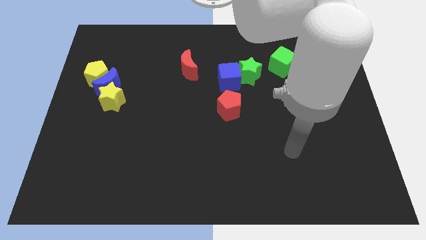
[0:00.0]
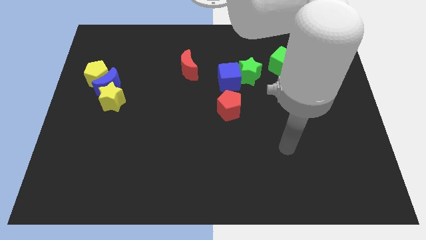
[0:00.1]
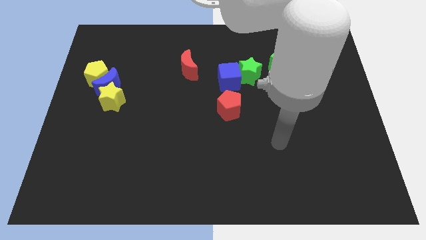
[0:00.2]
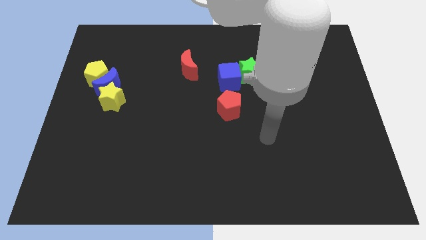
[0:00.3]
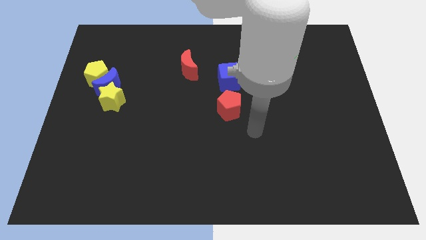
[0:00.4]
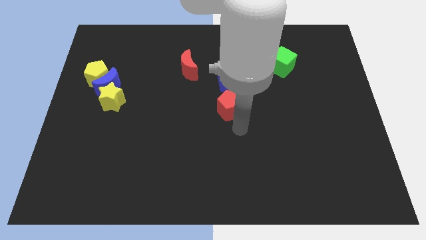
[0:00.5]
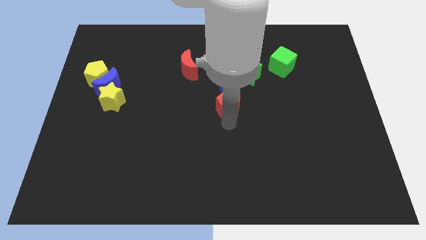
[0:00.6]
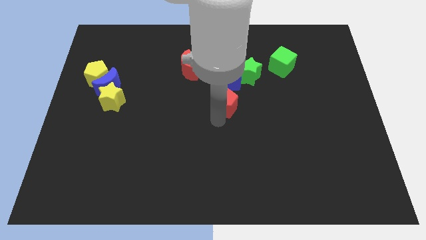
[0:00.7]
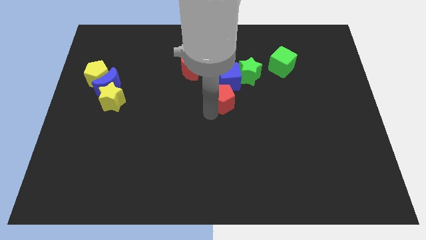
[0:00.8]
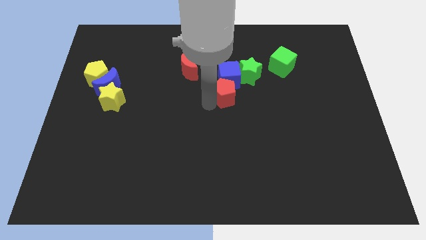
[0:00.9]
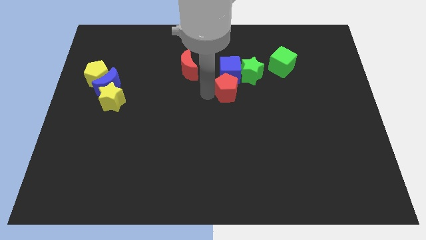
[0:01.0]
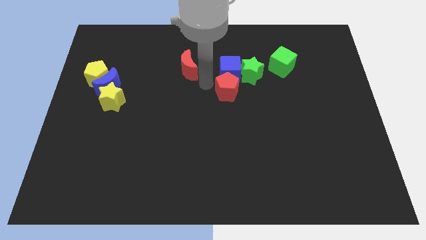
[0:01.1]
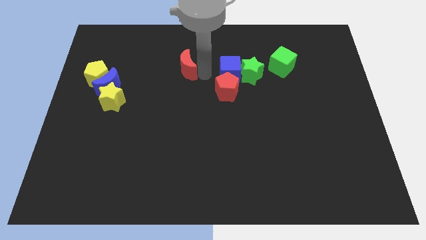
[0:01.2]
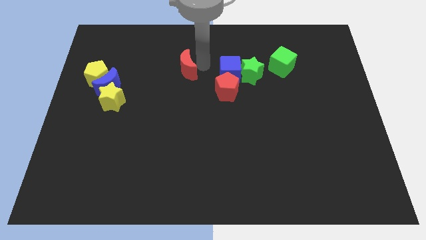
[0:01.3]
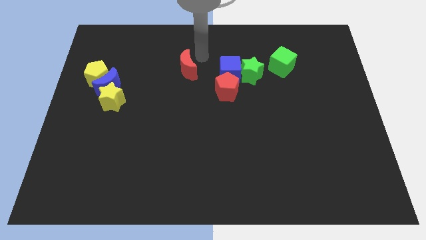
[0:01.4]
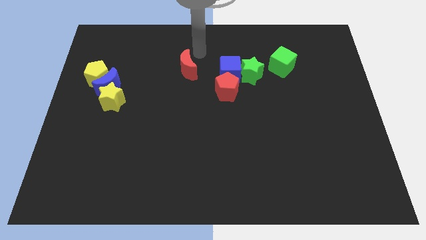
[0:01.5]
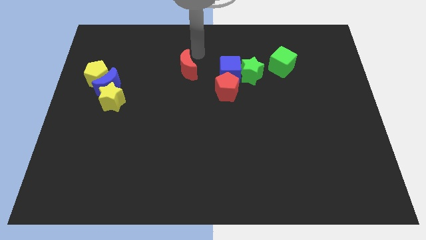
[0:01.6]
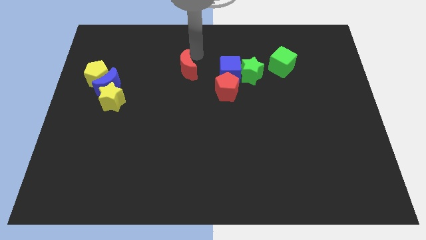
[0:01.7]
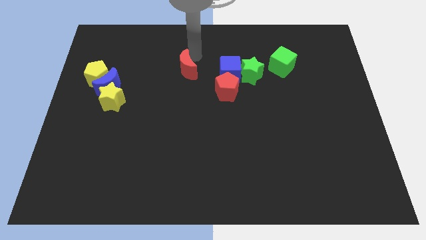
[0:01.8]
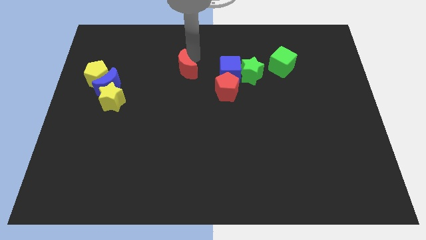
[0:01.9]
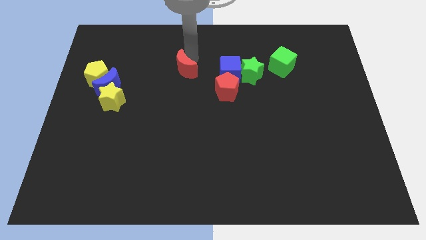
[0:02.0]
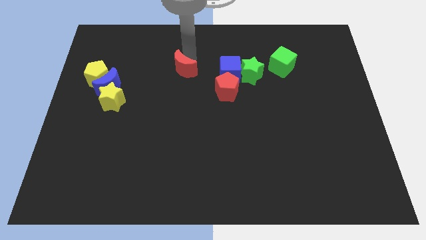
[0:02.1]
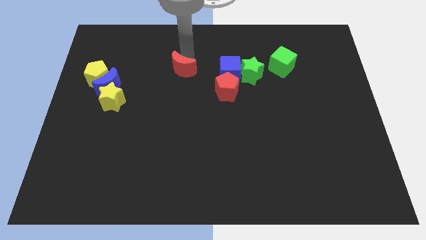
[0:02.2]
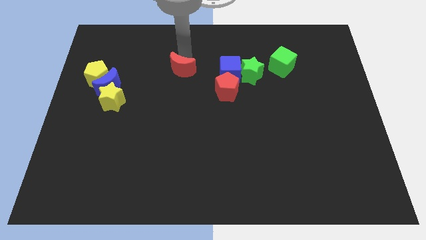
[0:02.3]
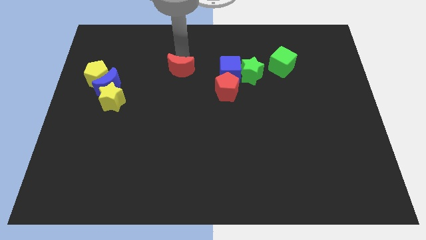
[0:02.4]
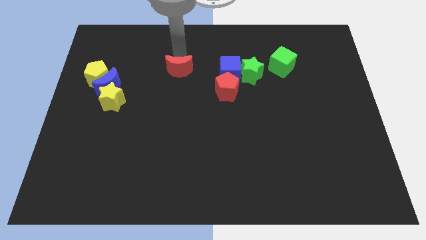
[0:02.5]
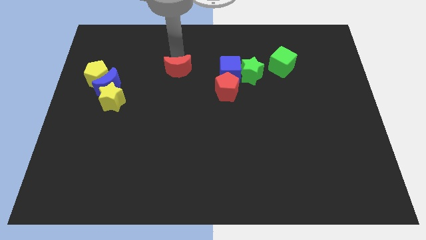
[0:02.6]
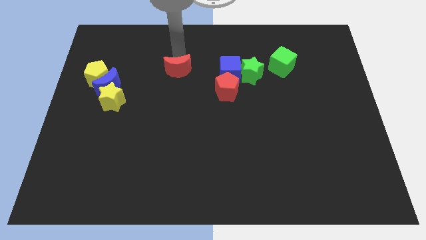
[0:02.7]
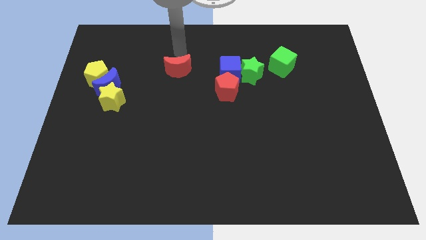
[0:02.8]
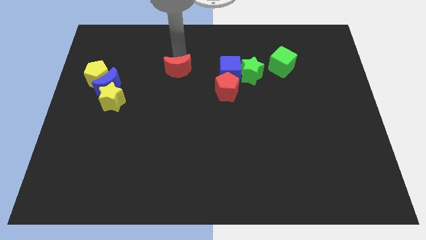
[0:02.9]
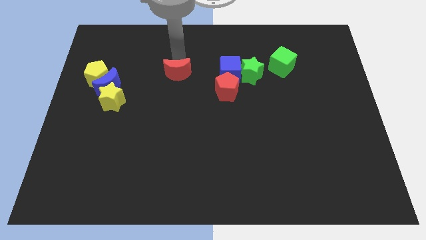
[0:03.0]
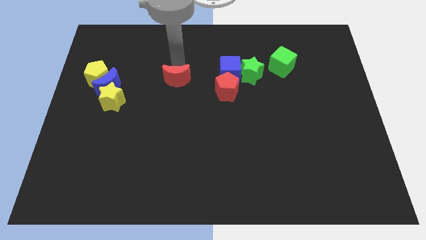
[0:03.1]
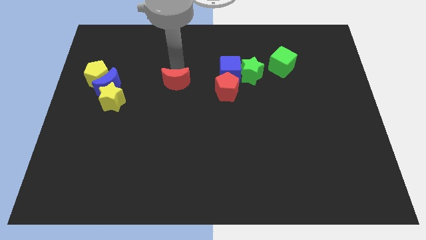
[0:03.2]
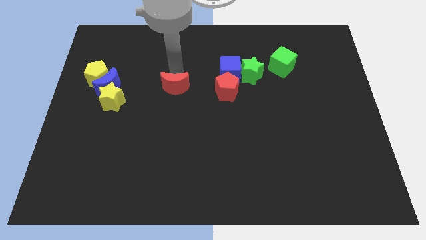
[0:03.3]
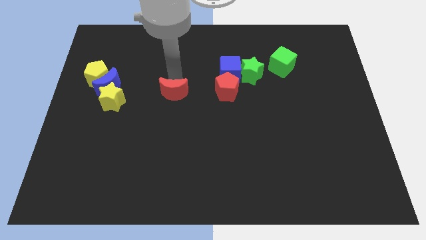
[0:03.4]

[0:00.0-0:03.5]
move the red moon downwards a little bit

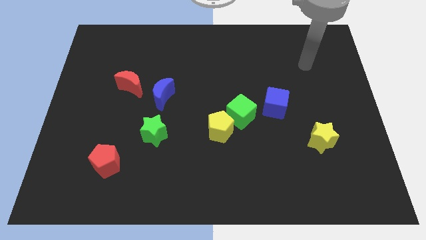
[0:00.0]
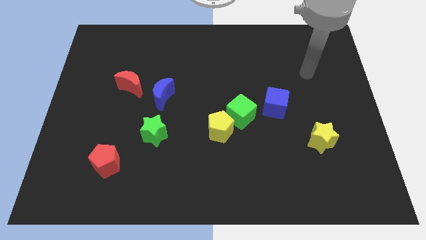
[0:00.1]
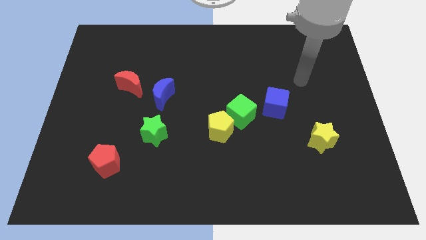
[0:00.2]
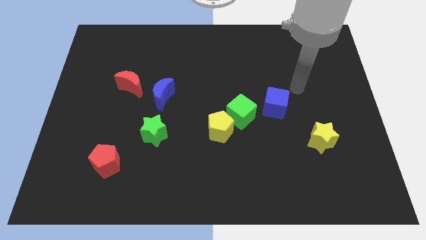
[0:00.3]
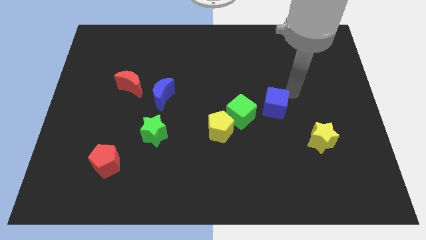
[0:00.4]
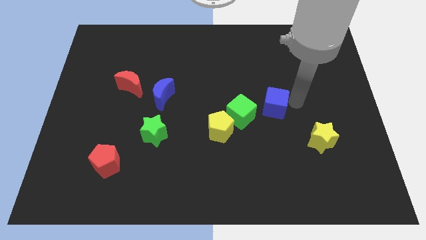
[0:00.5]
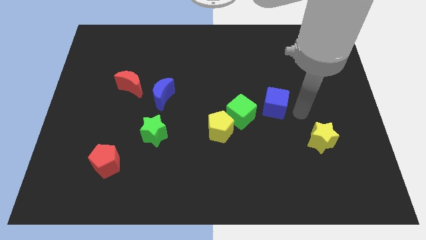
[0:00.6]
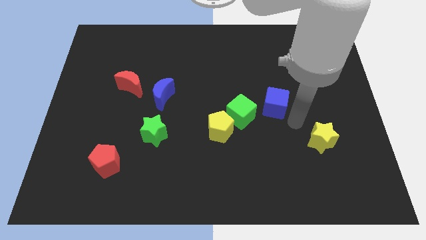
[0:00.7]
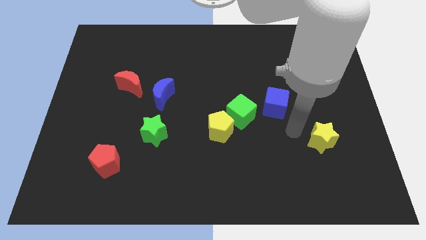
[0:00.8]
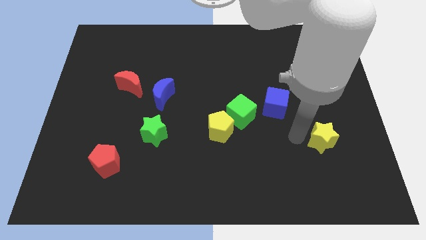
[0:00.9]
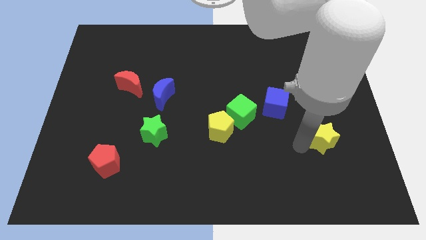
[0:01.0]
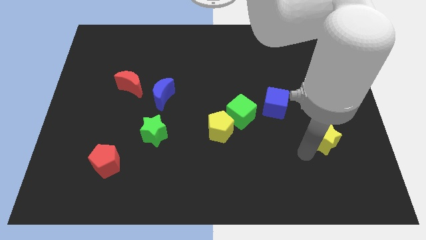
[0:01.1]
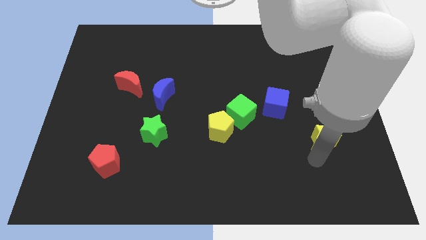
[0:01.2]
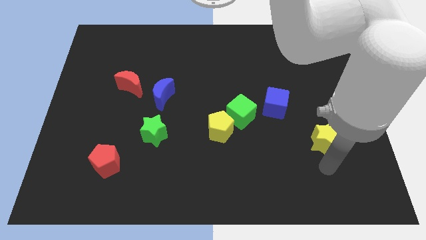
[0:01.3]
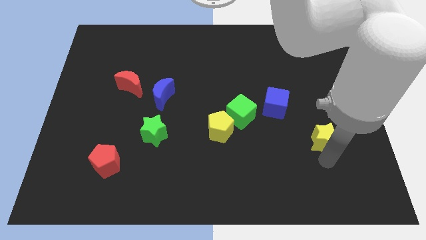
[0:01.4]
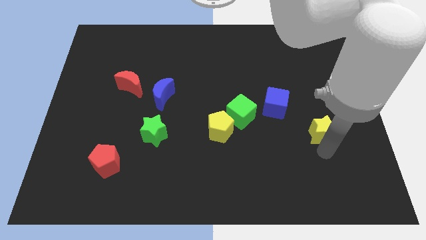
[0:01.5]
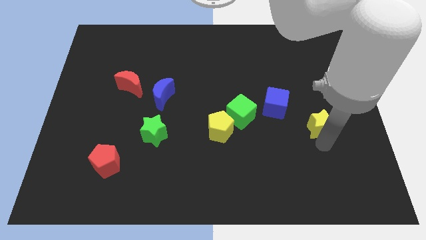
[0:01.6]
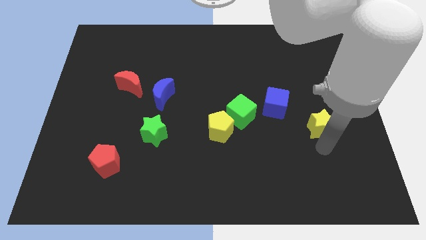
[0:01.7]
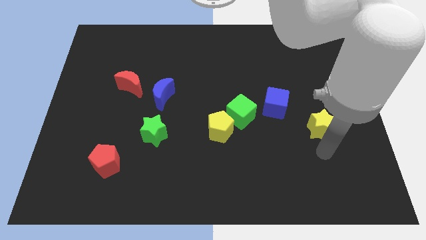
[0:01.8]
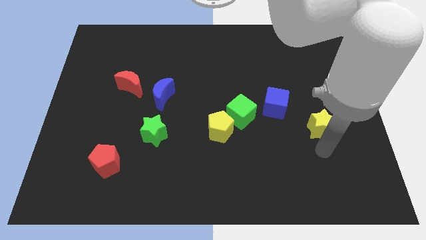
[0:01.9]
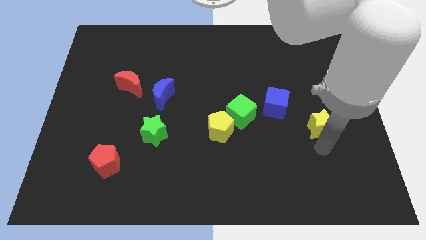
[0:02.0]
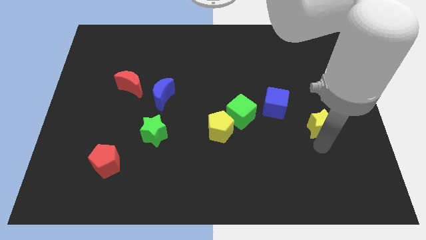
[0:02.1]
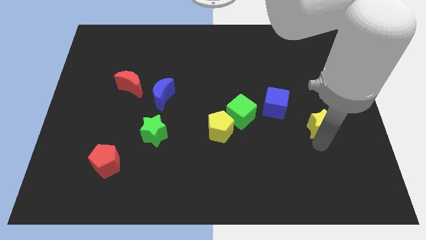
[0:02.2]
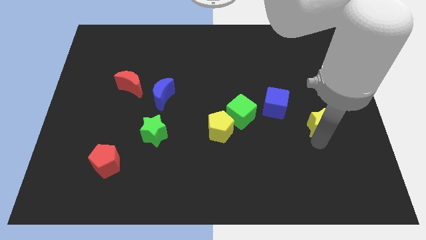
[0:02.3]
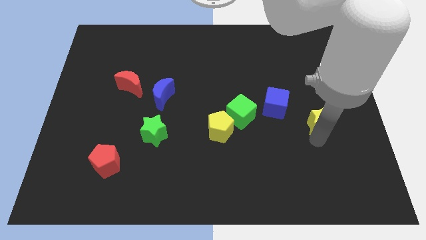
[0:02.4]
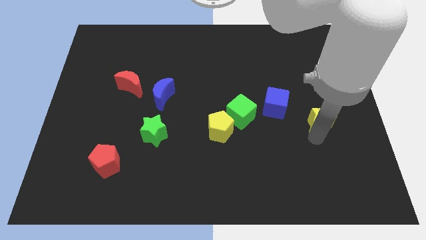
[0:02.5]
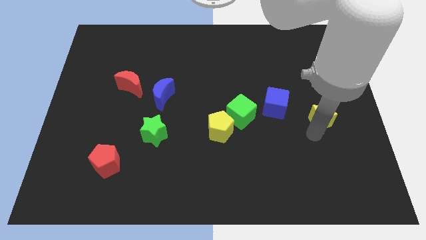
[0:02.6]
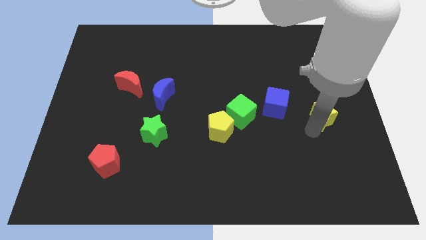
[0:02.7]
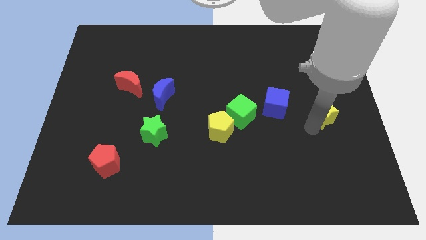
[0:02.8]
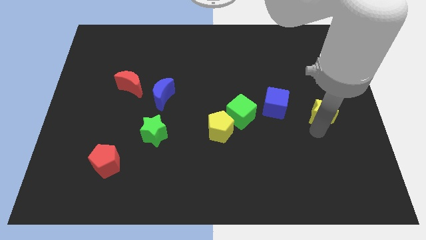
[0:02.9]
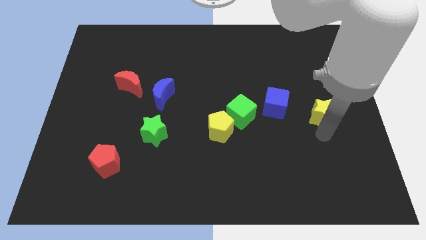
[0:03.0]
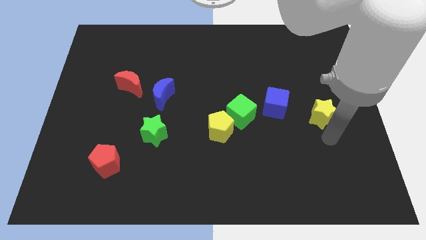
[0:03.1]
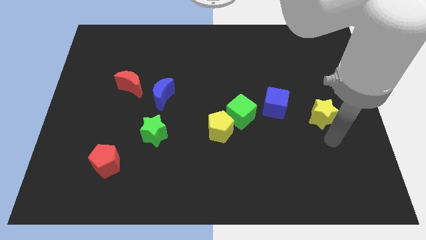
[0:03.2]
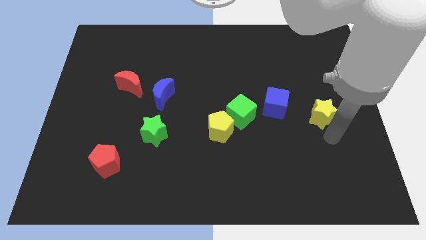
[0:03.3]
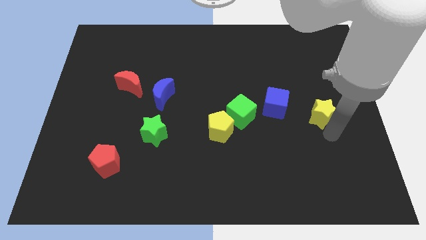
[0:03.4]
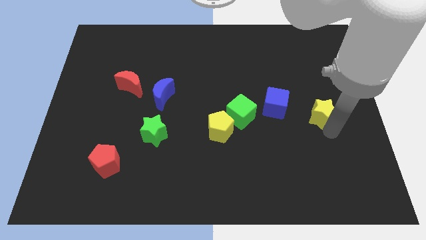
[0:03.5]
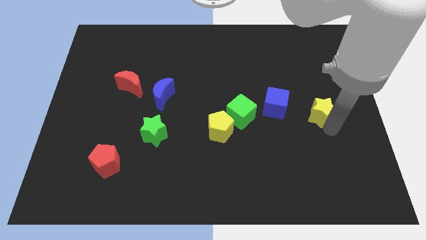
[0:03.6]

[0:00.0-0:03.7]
move the yellow star up a little

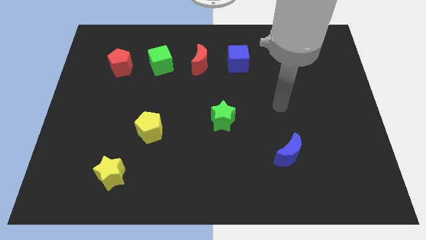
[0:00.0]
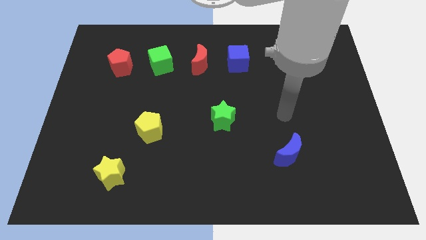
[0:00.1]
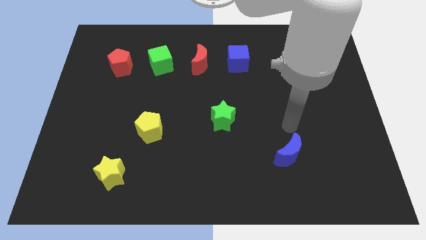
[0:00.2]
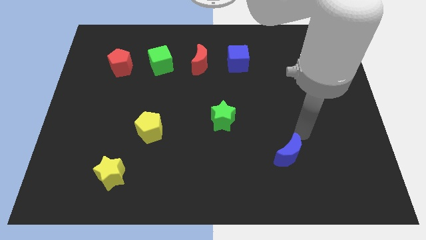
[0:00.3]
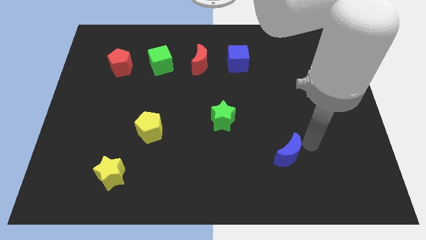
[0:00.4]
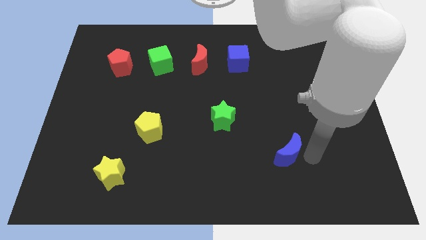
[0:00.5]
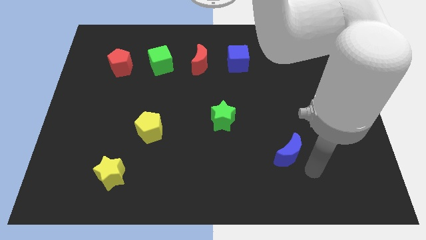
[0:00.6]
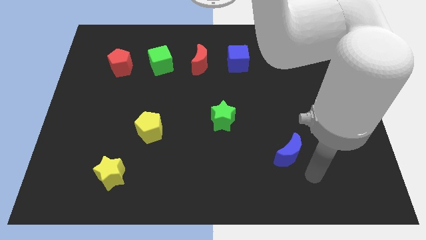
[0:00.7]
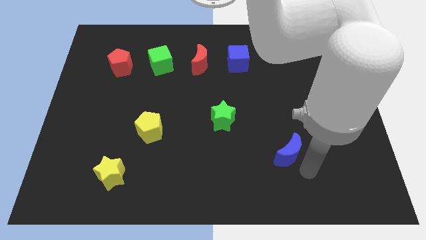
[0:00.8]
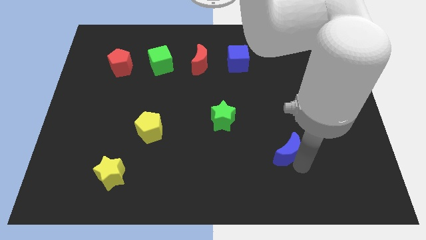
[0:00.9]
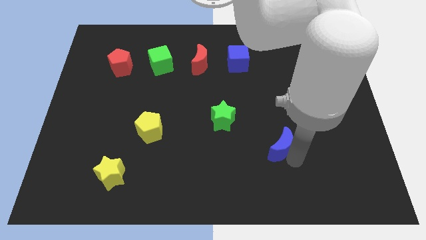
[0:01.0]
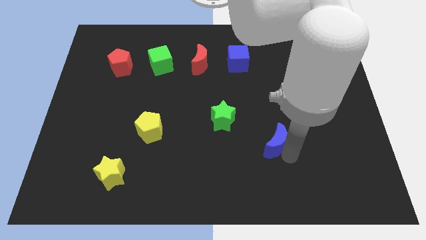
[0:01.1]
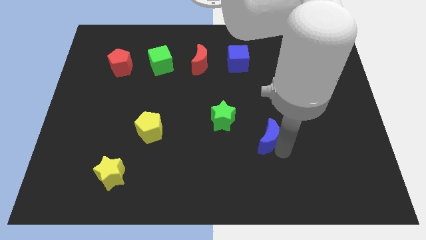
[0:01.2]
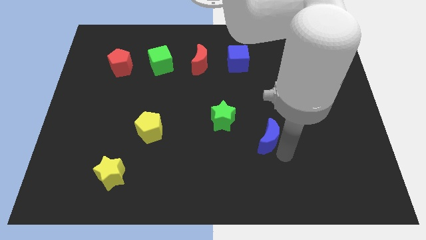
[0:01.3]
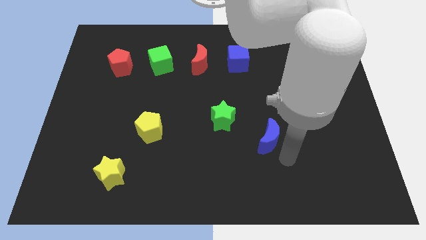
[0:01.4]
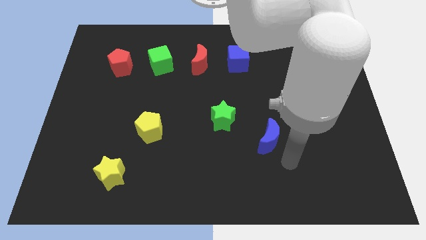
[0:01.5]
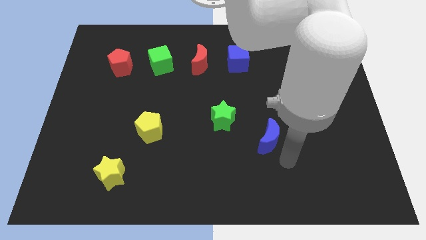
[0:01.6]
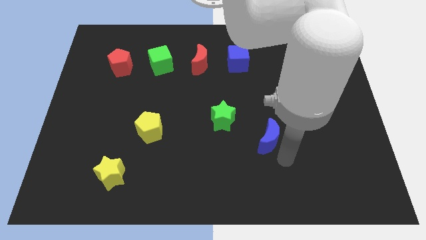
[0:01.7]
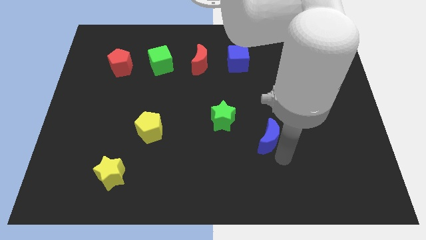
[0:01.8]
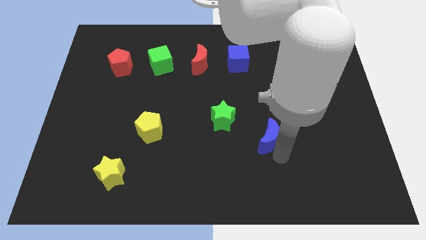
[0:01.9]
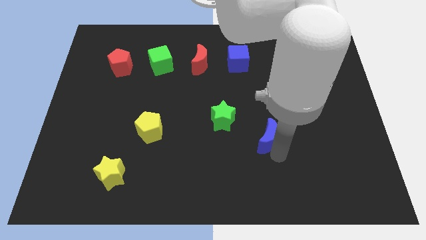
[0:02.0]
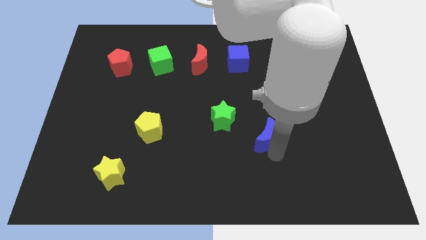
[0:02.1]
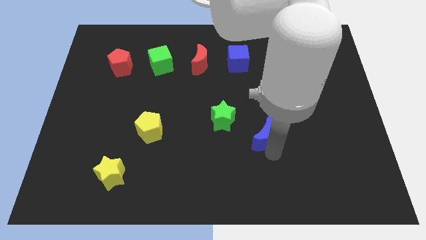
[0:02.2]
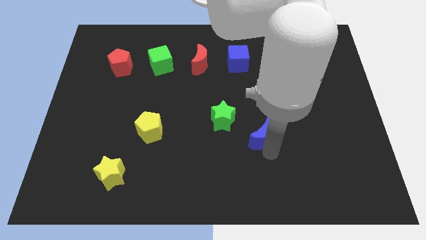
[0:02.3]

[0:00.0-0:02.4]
push the blue moon up and left diagonally somewhat
